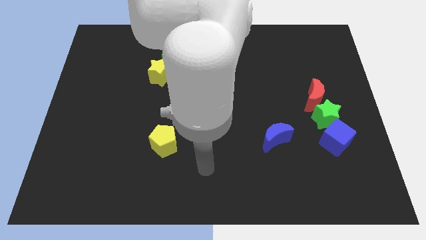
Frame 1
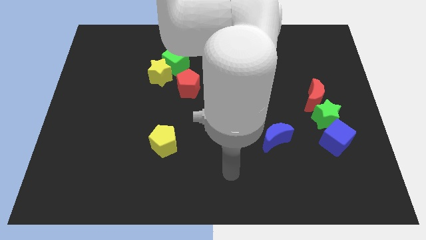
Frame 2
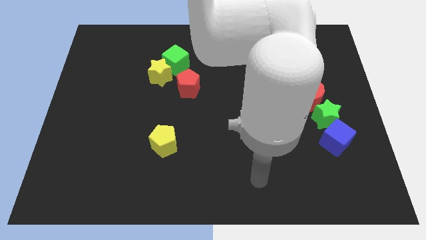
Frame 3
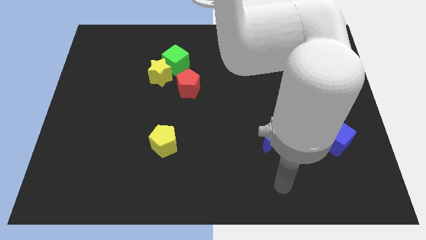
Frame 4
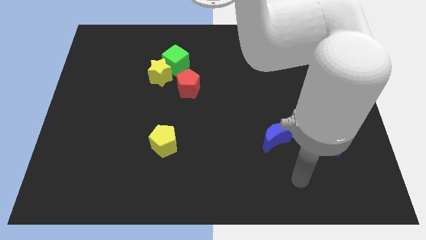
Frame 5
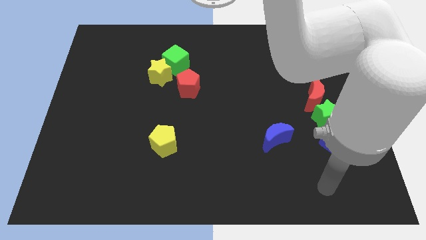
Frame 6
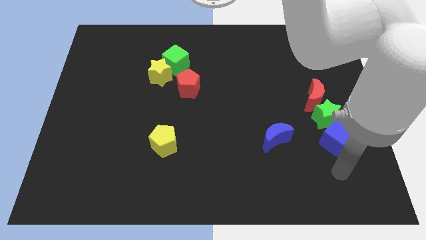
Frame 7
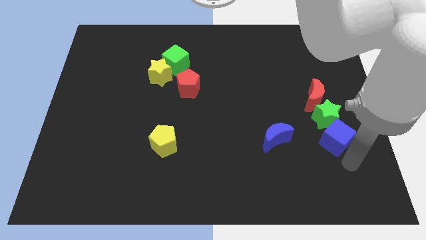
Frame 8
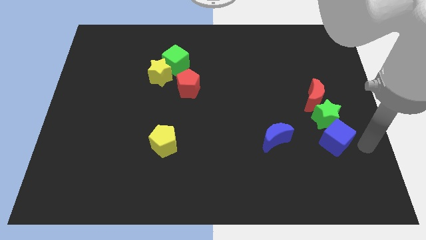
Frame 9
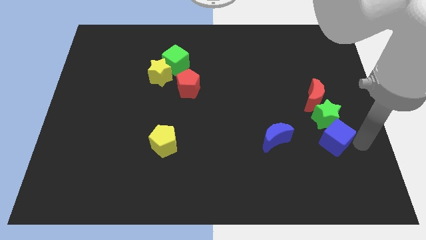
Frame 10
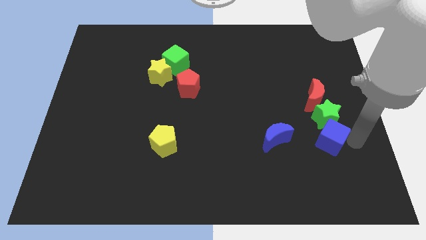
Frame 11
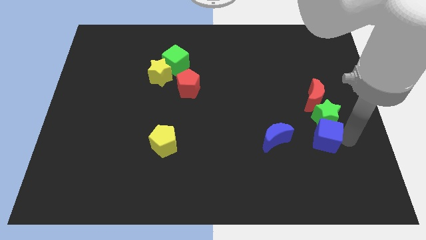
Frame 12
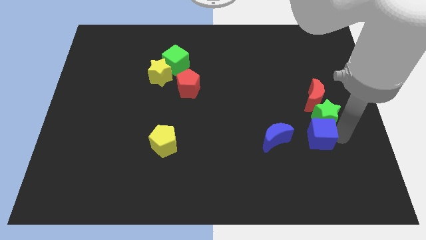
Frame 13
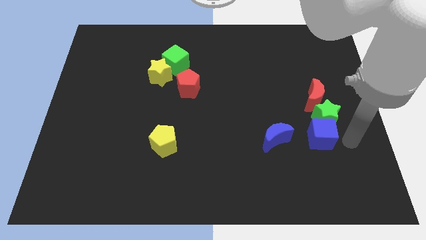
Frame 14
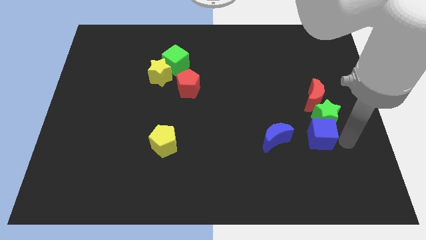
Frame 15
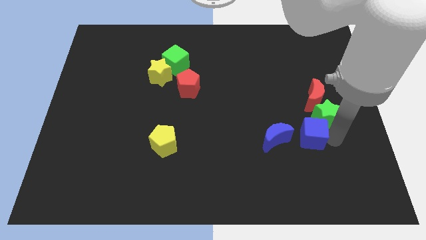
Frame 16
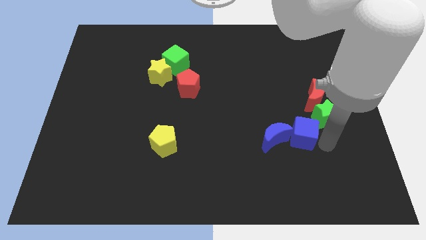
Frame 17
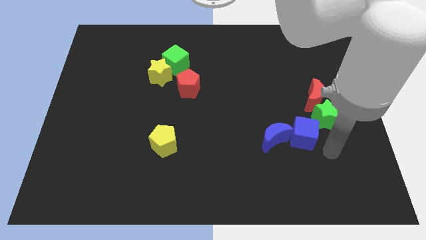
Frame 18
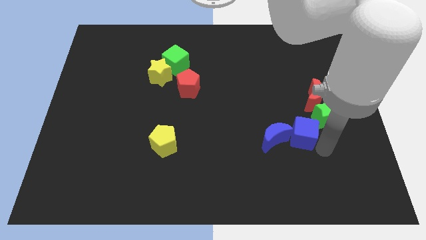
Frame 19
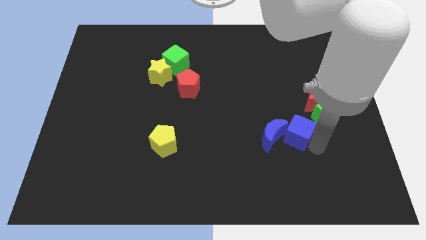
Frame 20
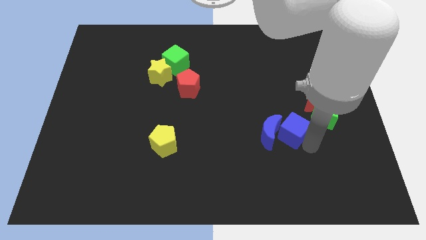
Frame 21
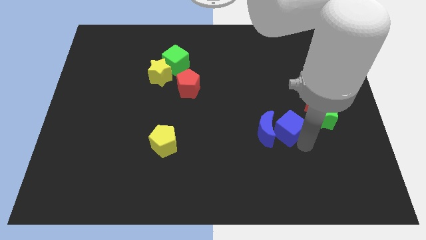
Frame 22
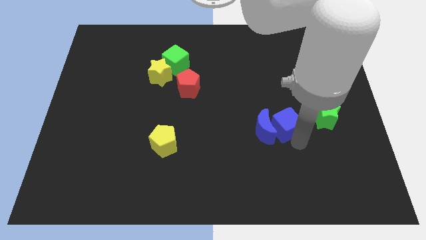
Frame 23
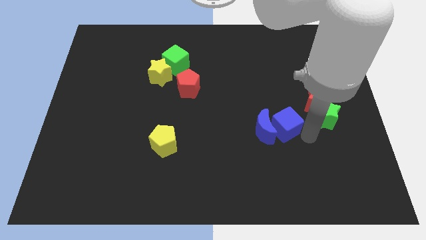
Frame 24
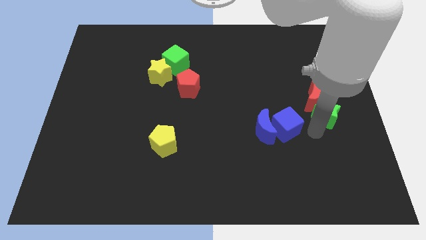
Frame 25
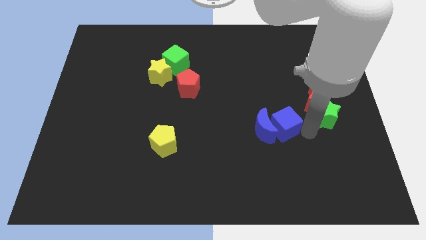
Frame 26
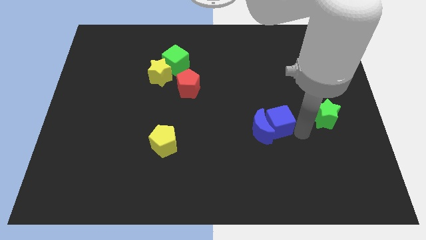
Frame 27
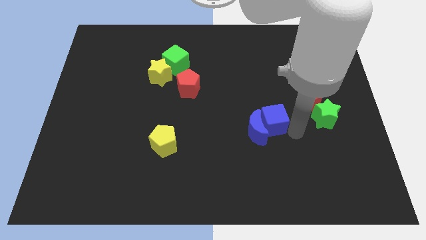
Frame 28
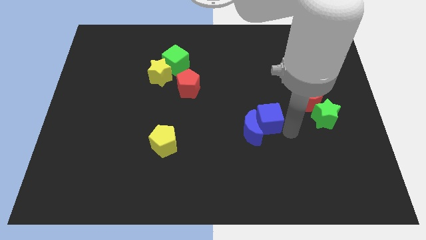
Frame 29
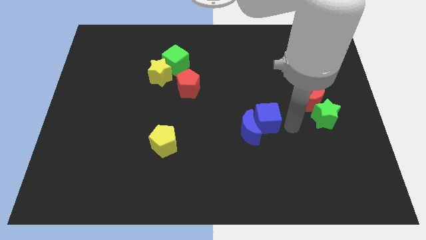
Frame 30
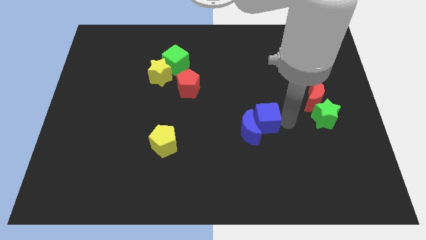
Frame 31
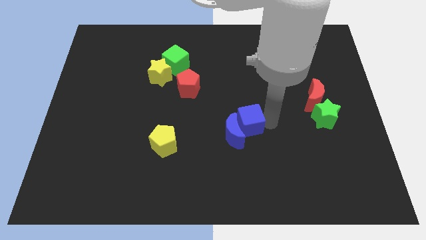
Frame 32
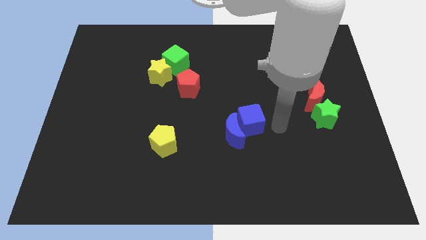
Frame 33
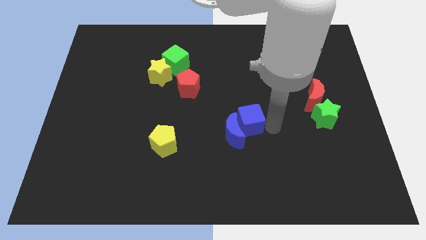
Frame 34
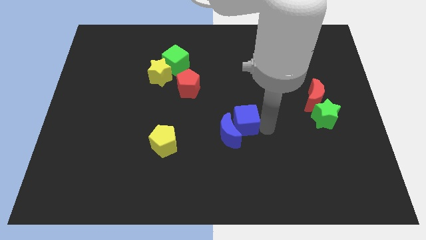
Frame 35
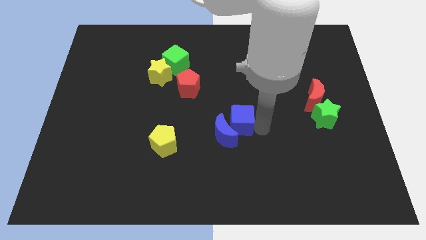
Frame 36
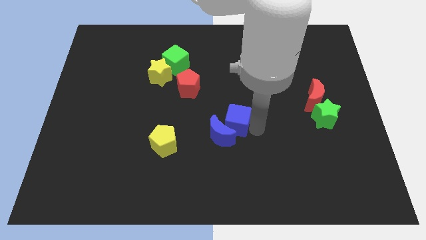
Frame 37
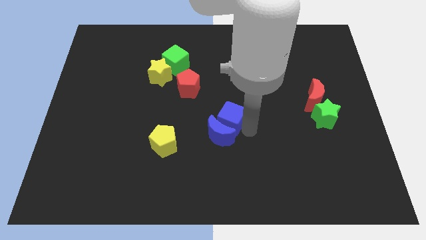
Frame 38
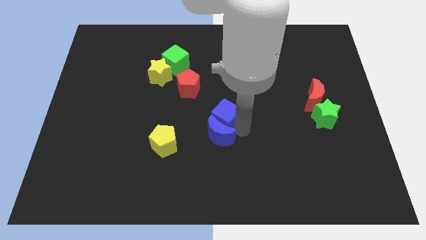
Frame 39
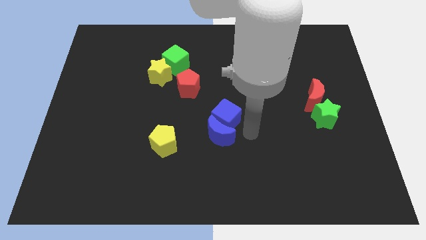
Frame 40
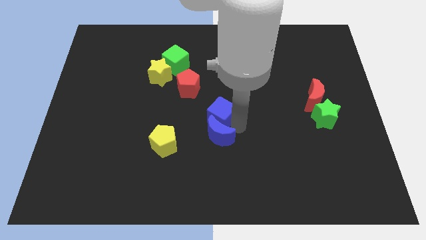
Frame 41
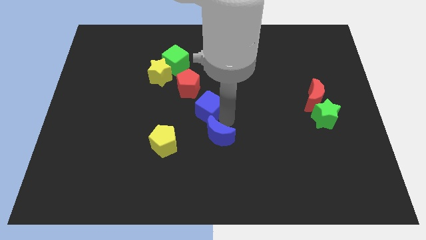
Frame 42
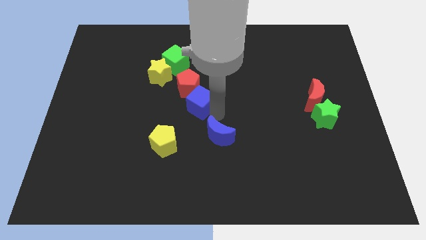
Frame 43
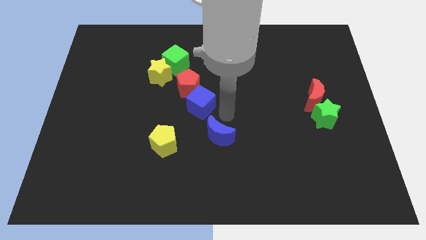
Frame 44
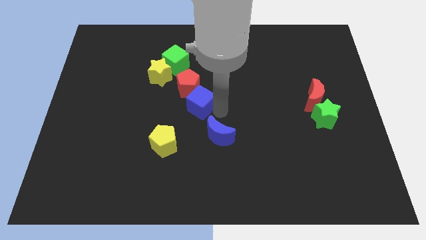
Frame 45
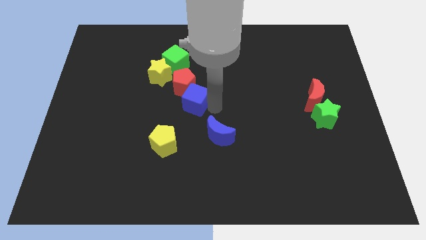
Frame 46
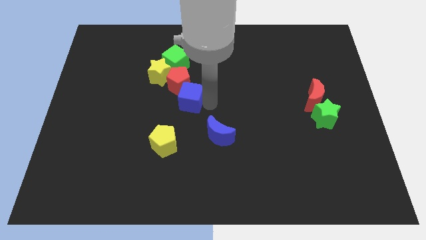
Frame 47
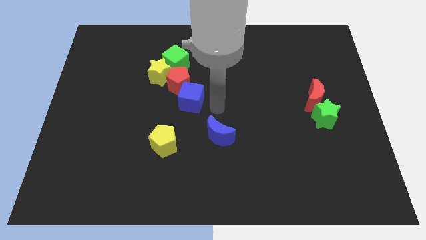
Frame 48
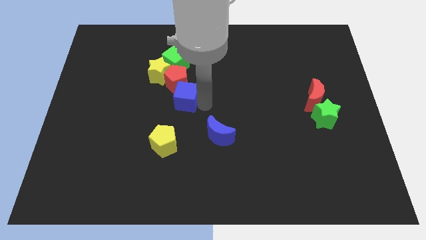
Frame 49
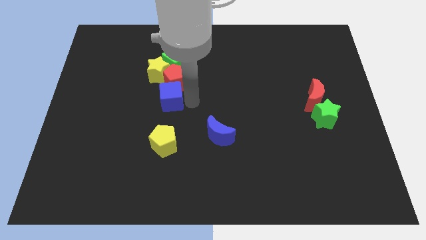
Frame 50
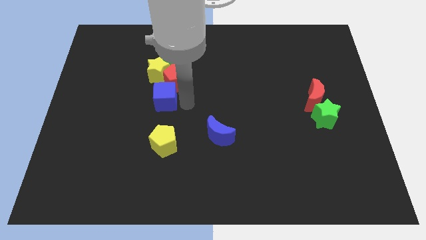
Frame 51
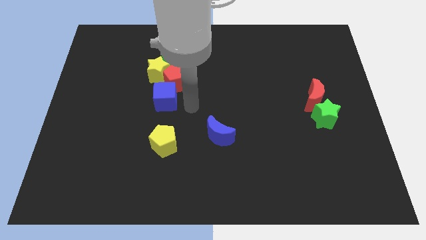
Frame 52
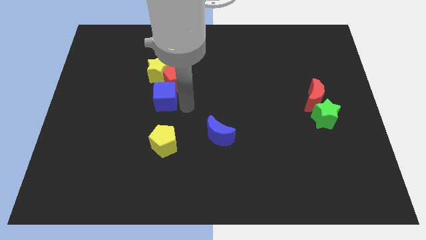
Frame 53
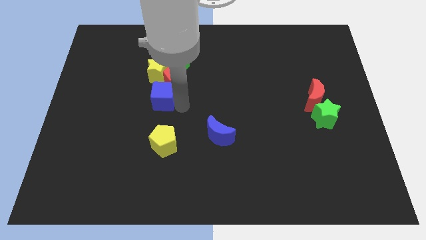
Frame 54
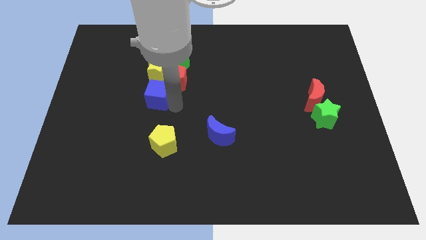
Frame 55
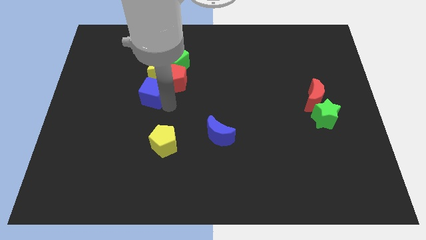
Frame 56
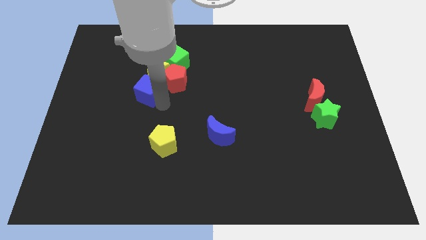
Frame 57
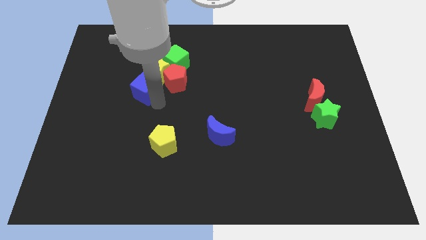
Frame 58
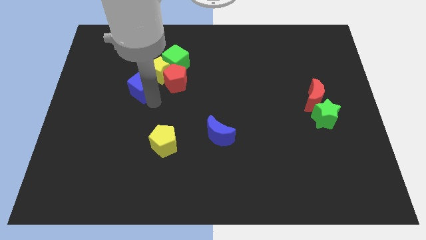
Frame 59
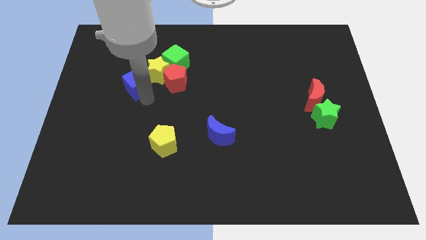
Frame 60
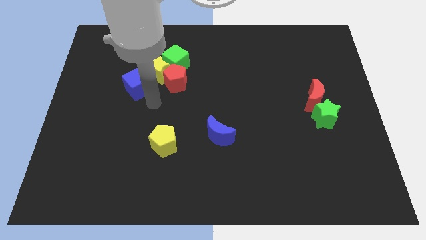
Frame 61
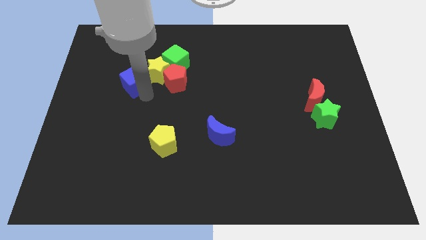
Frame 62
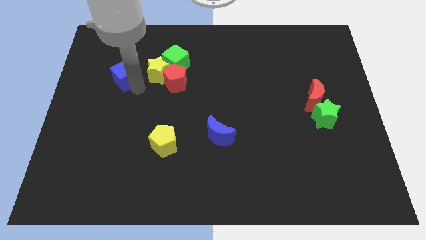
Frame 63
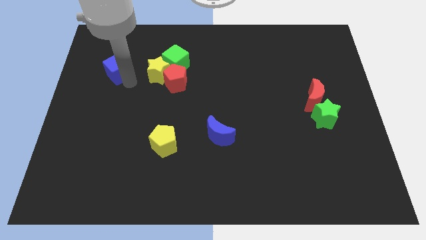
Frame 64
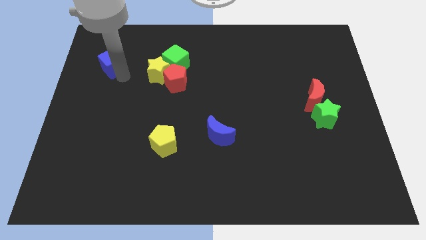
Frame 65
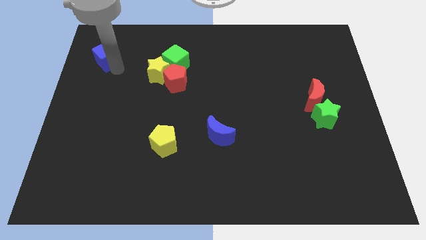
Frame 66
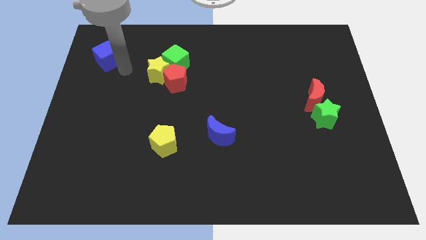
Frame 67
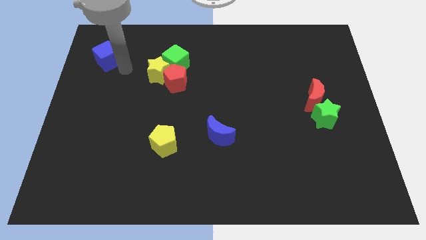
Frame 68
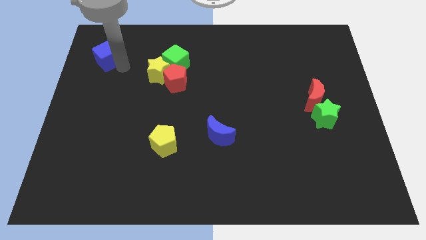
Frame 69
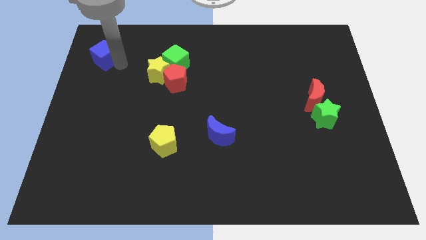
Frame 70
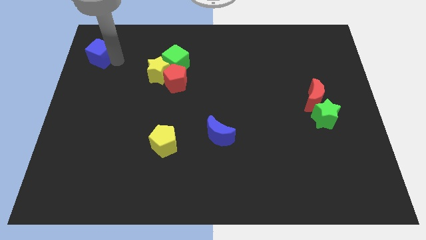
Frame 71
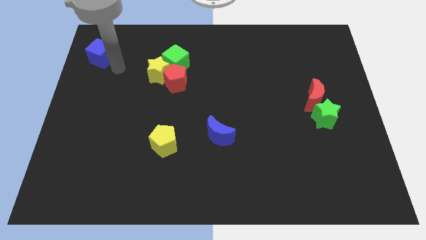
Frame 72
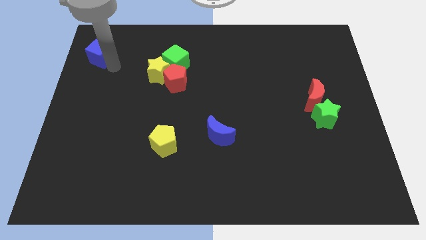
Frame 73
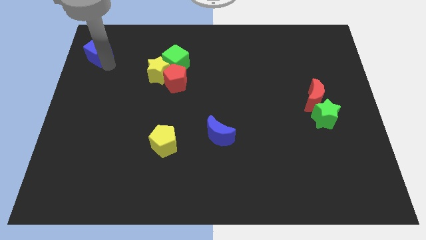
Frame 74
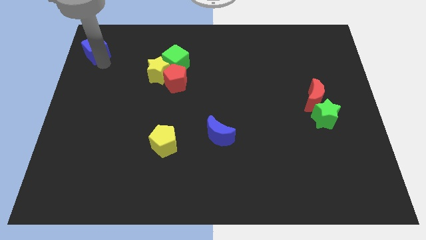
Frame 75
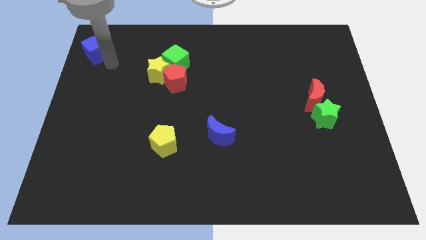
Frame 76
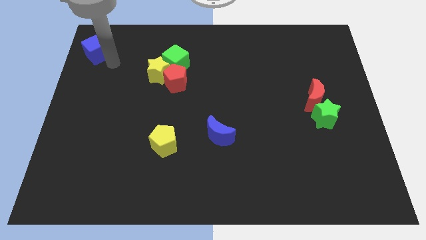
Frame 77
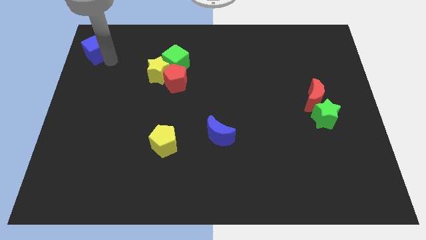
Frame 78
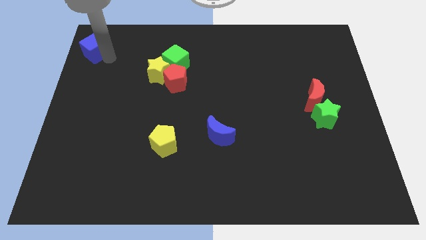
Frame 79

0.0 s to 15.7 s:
put the blue cube to the top left of the board
